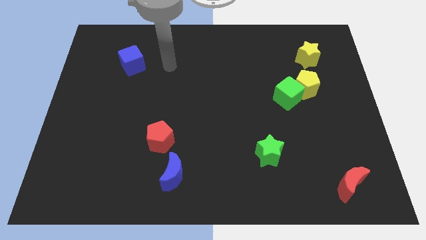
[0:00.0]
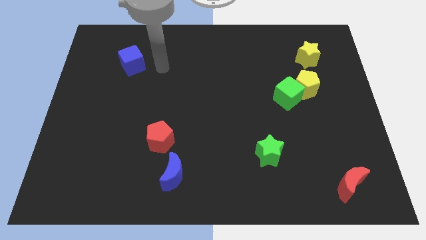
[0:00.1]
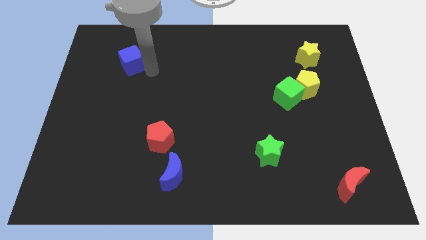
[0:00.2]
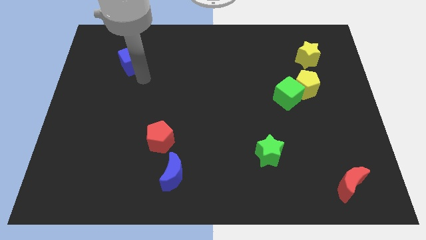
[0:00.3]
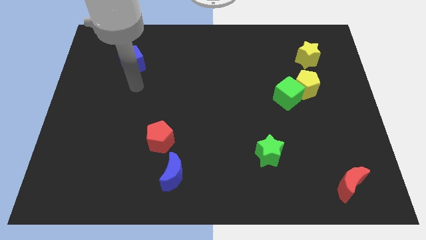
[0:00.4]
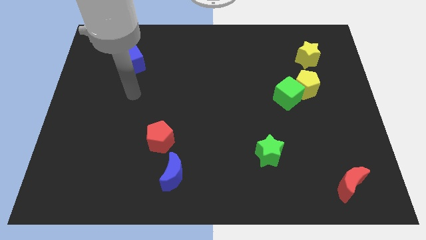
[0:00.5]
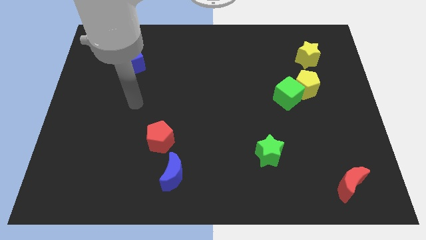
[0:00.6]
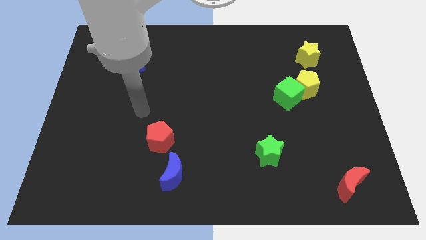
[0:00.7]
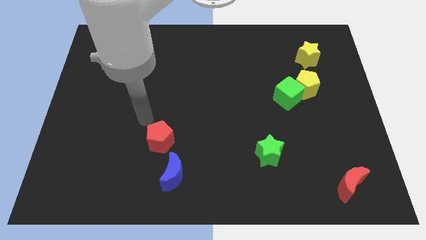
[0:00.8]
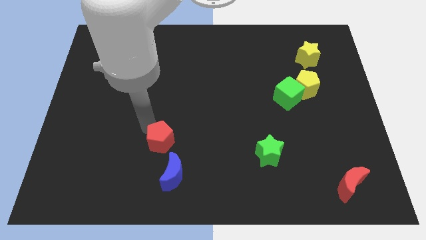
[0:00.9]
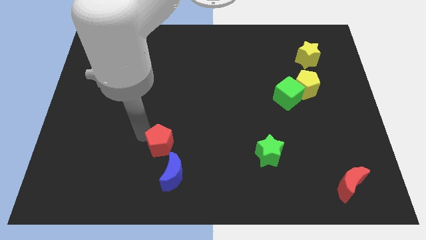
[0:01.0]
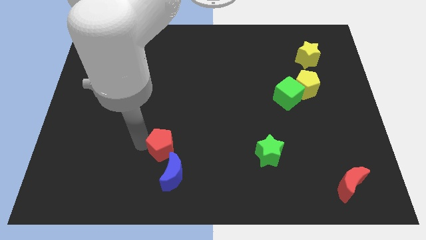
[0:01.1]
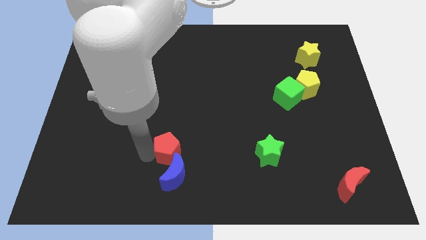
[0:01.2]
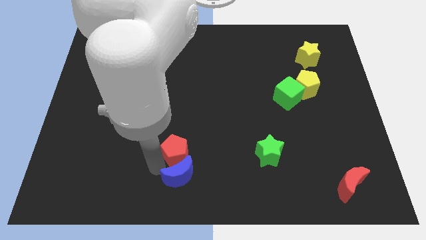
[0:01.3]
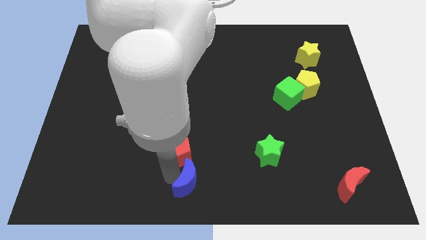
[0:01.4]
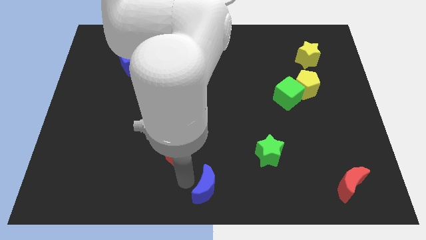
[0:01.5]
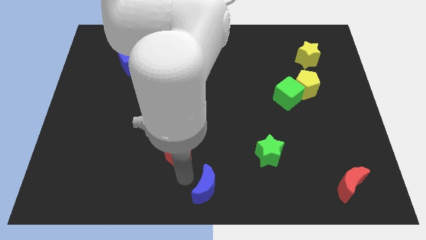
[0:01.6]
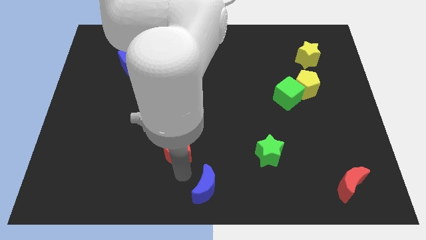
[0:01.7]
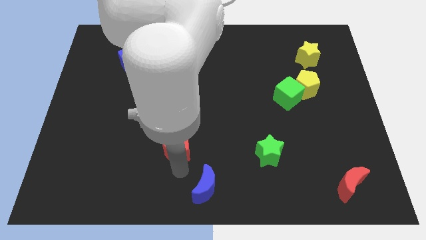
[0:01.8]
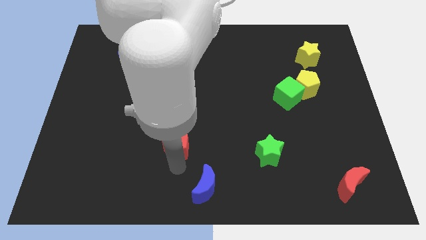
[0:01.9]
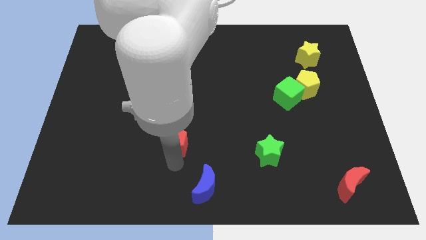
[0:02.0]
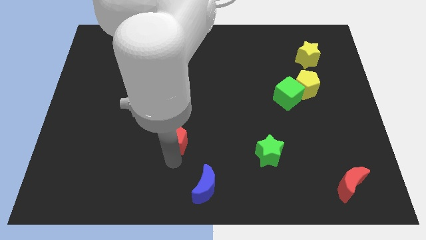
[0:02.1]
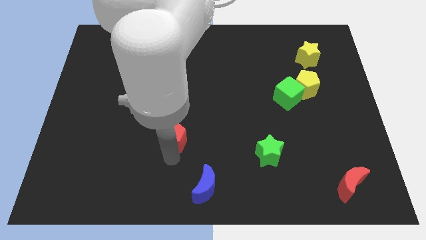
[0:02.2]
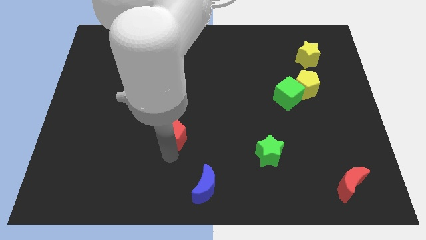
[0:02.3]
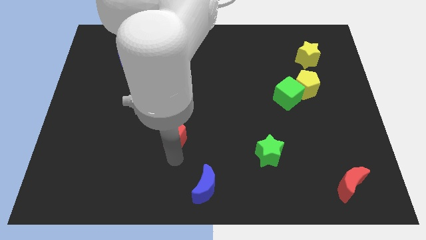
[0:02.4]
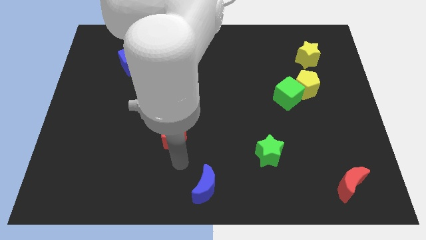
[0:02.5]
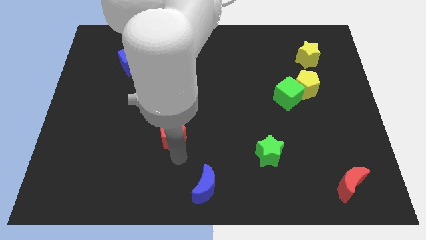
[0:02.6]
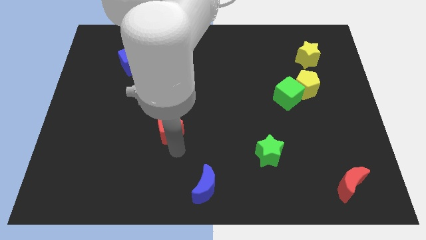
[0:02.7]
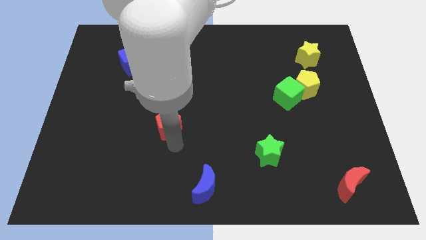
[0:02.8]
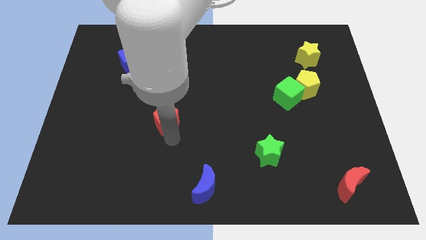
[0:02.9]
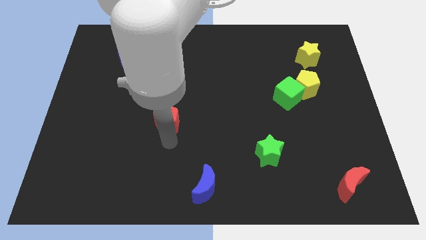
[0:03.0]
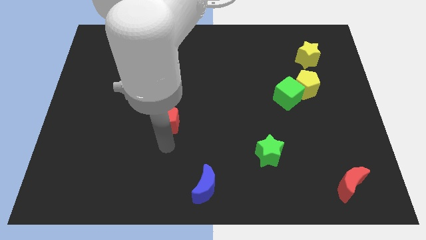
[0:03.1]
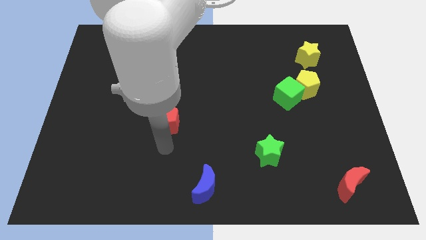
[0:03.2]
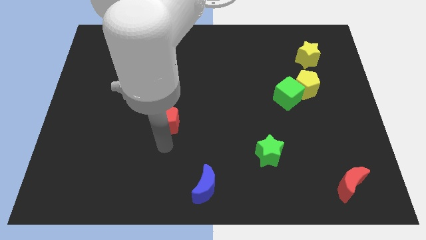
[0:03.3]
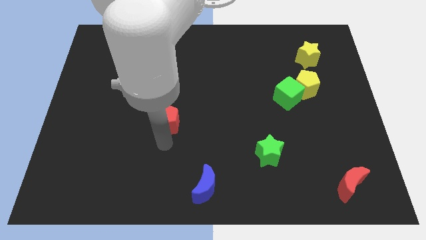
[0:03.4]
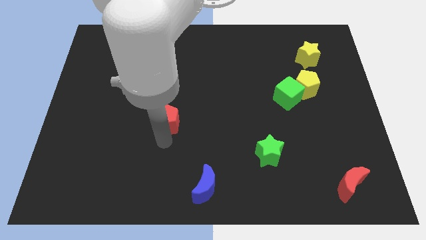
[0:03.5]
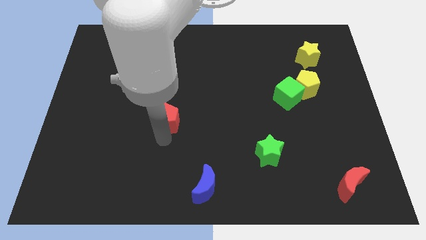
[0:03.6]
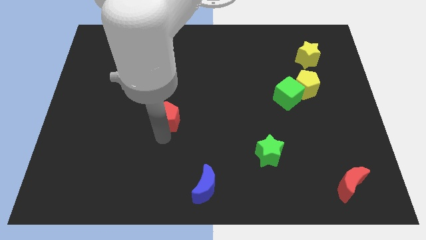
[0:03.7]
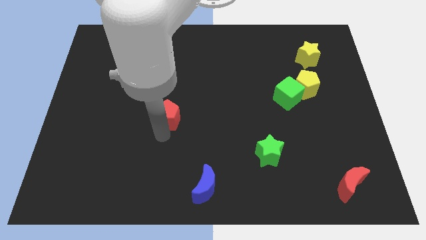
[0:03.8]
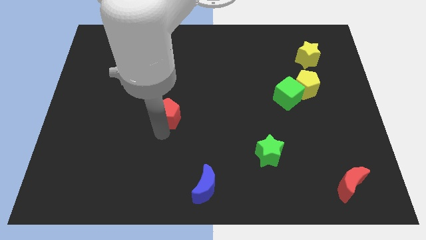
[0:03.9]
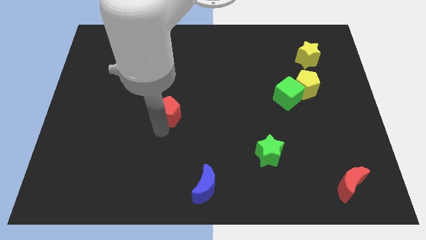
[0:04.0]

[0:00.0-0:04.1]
push the red pentagon upwards somewhat

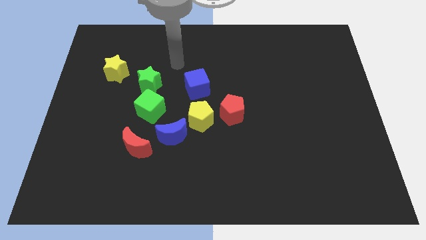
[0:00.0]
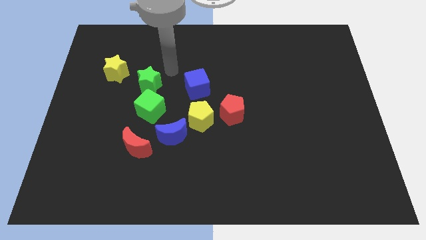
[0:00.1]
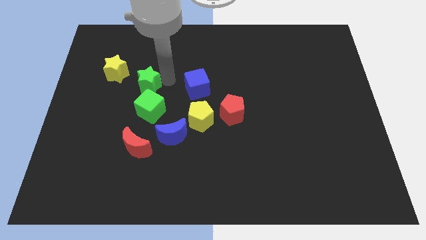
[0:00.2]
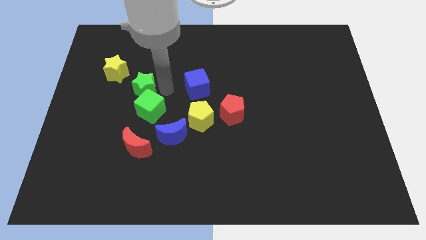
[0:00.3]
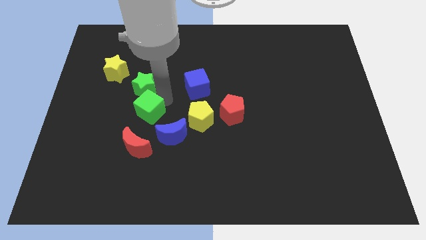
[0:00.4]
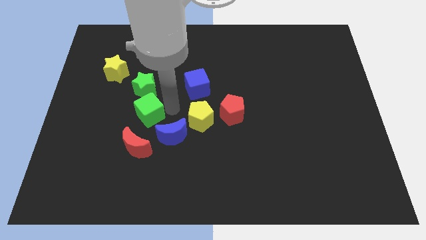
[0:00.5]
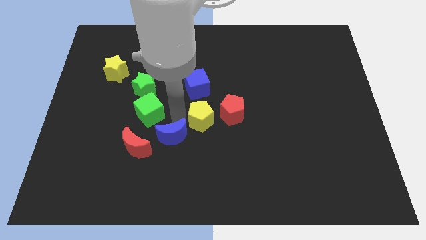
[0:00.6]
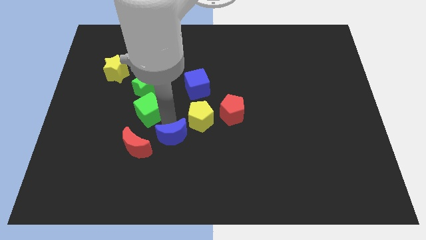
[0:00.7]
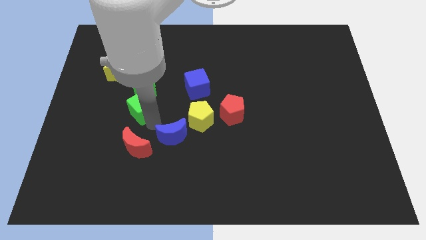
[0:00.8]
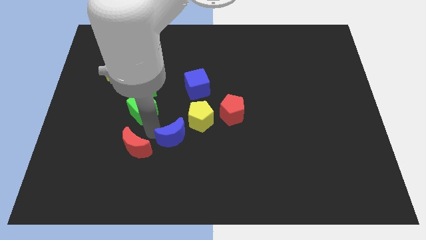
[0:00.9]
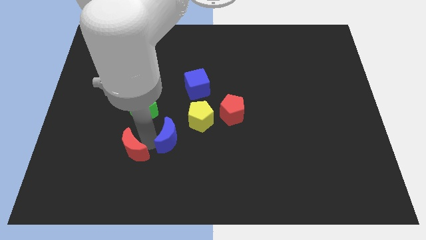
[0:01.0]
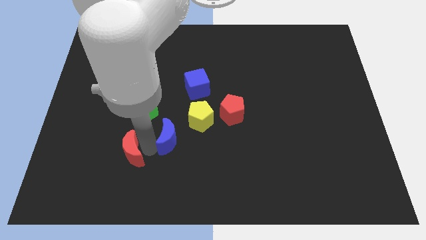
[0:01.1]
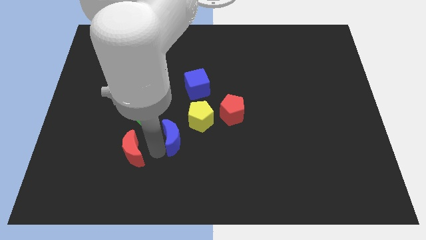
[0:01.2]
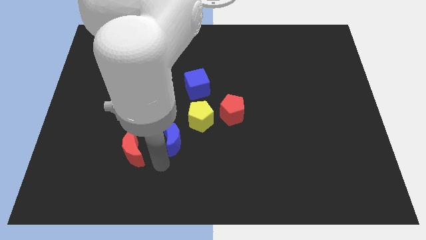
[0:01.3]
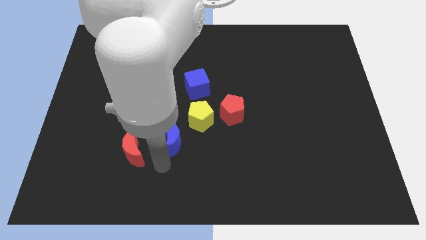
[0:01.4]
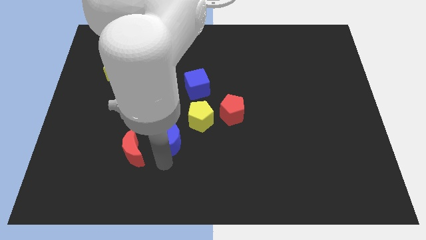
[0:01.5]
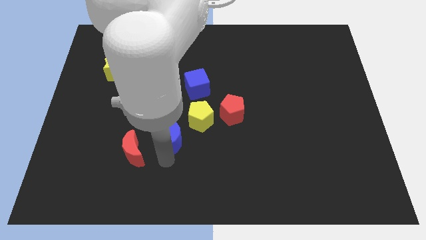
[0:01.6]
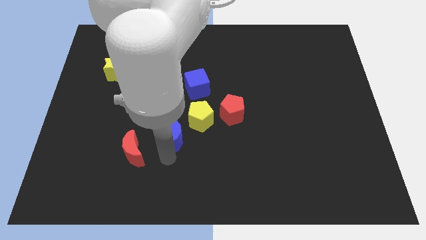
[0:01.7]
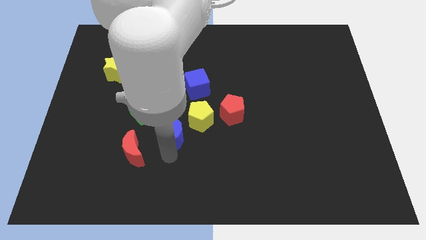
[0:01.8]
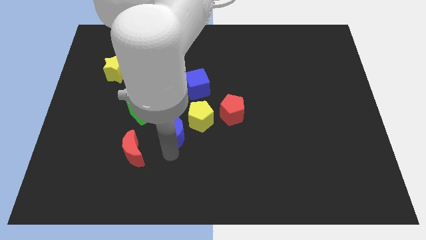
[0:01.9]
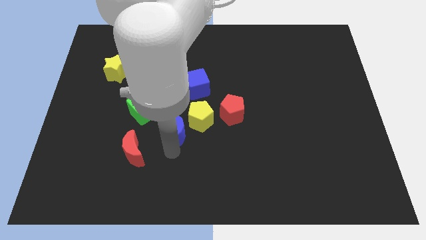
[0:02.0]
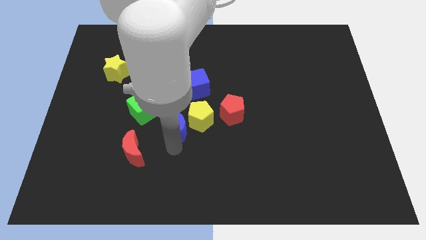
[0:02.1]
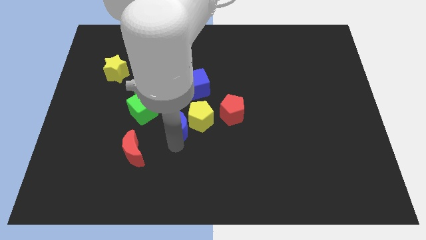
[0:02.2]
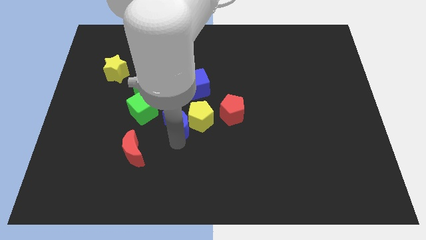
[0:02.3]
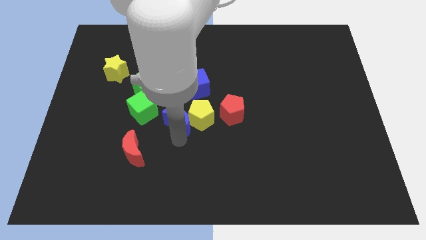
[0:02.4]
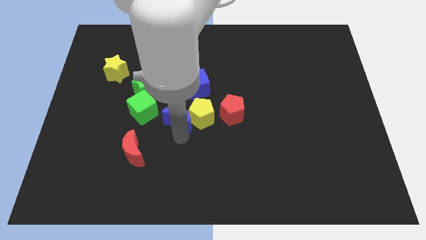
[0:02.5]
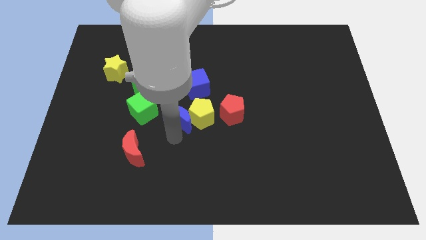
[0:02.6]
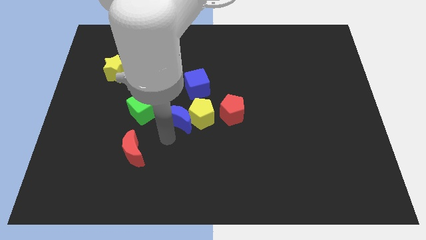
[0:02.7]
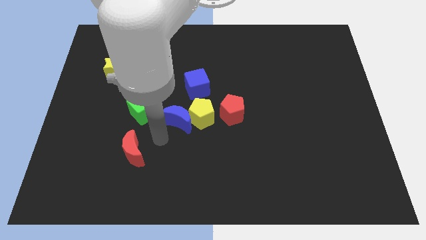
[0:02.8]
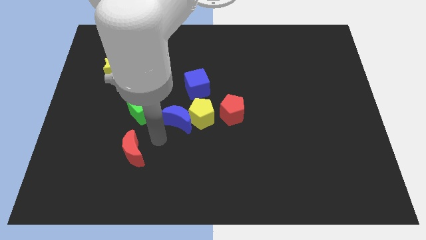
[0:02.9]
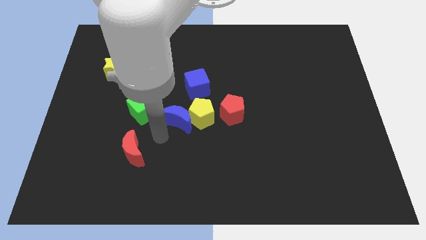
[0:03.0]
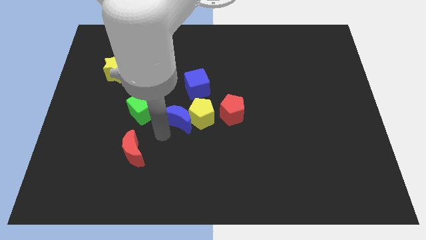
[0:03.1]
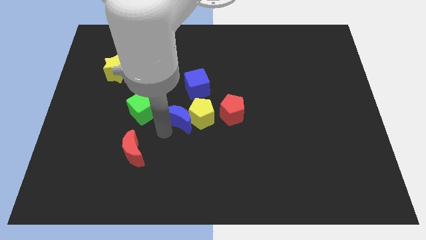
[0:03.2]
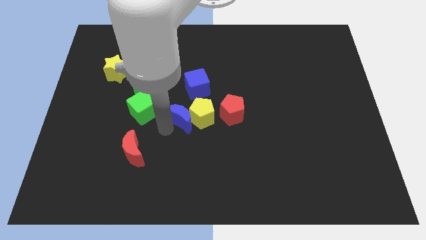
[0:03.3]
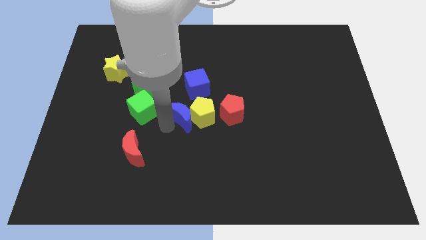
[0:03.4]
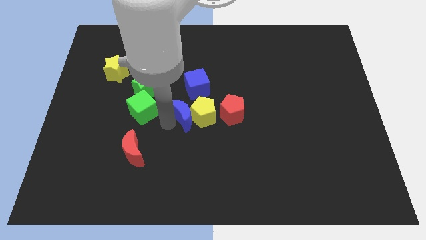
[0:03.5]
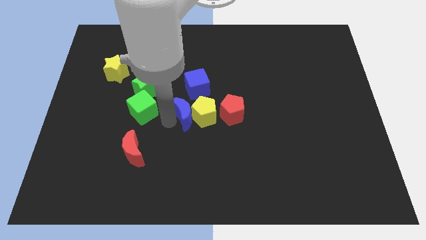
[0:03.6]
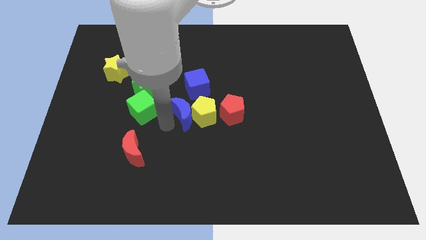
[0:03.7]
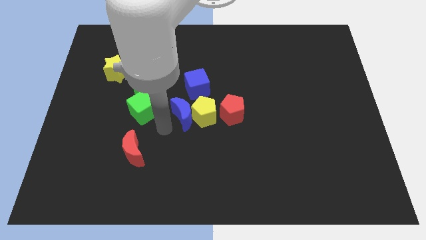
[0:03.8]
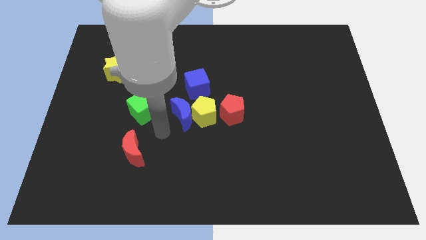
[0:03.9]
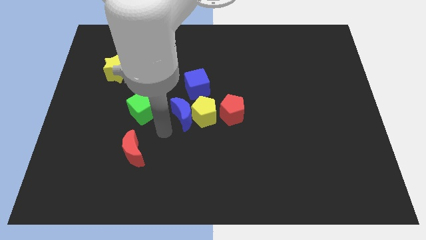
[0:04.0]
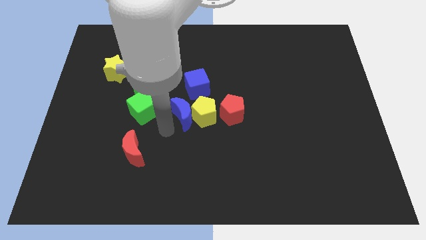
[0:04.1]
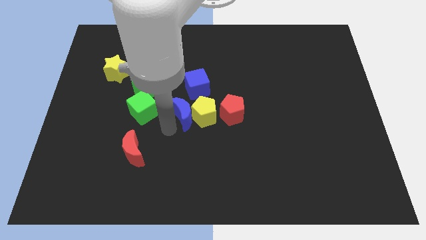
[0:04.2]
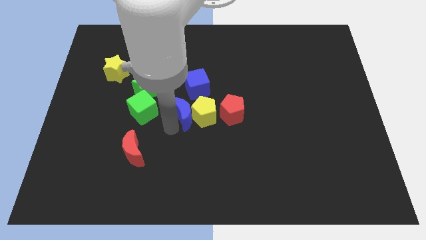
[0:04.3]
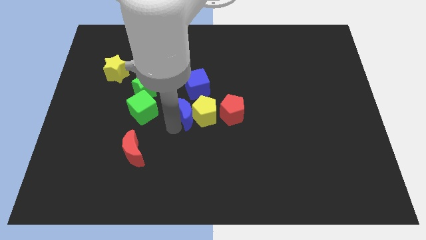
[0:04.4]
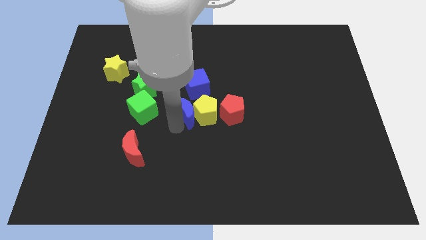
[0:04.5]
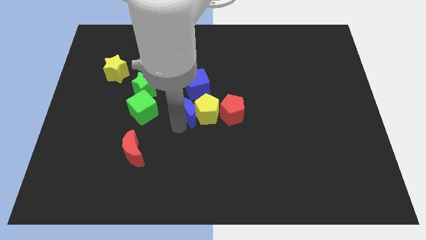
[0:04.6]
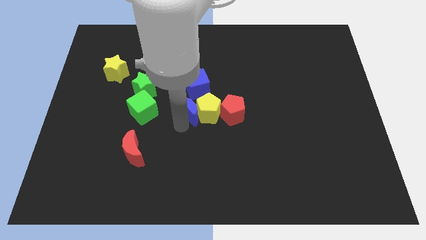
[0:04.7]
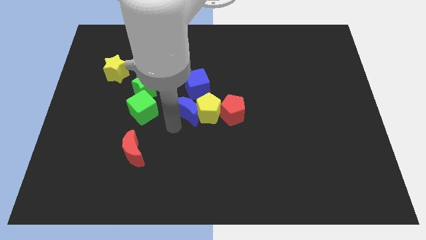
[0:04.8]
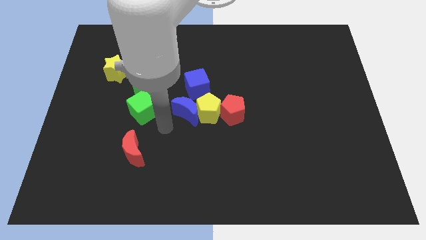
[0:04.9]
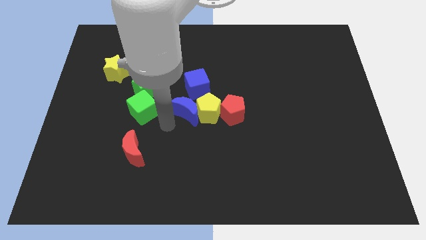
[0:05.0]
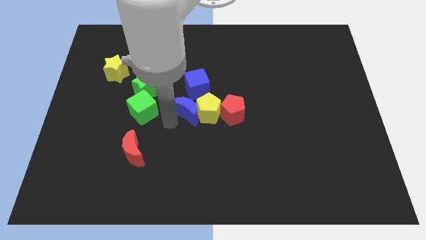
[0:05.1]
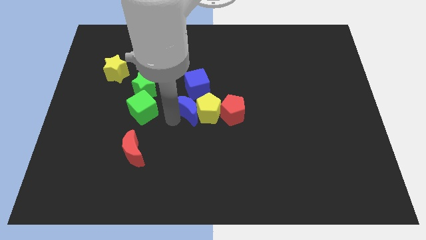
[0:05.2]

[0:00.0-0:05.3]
slide the blue moon diagonally upwards and to the right a little
